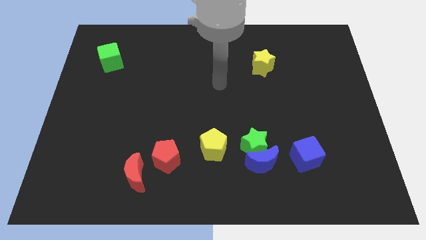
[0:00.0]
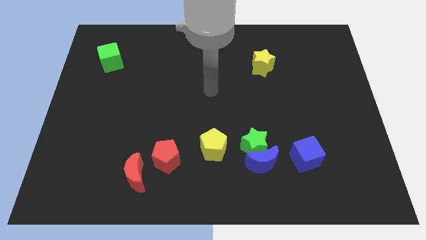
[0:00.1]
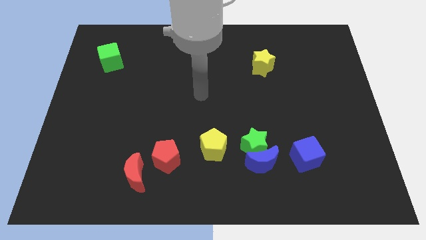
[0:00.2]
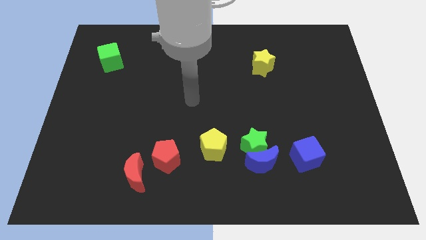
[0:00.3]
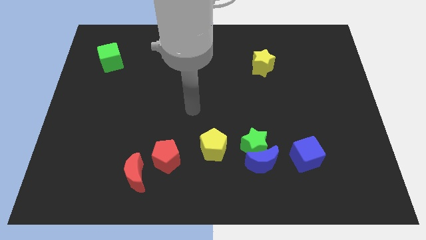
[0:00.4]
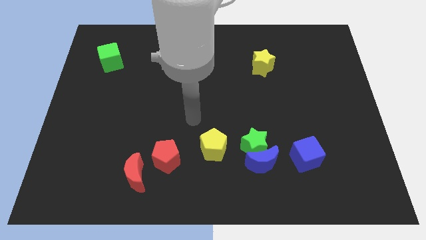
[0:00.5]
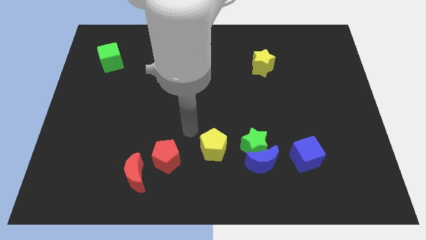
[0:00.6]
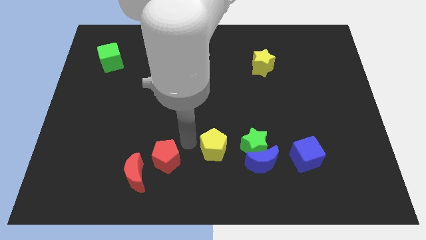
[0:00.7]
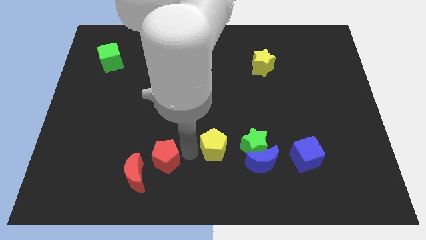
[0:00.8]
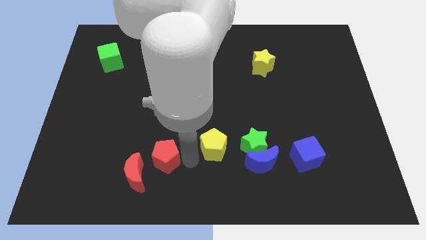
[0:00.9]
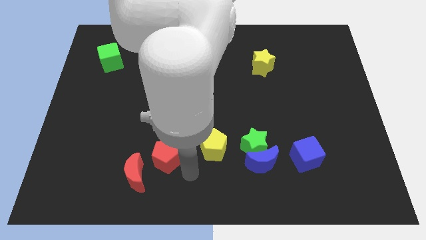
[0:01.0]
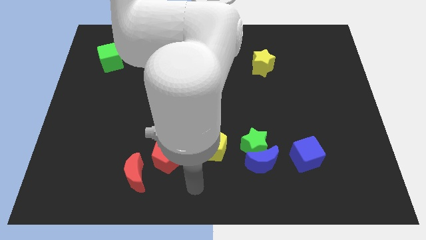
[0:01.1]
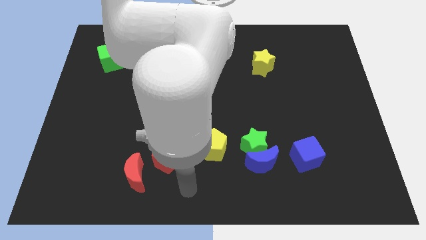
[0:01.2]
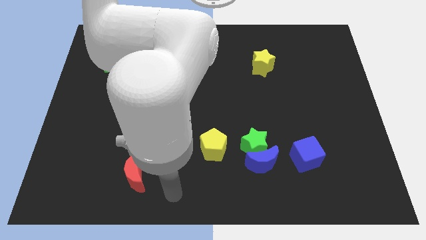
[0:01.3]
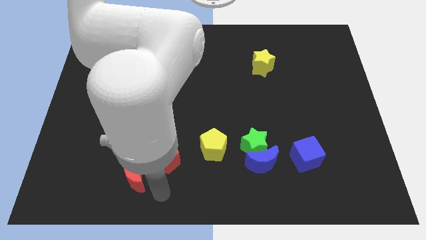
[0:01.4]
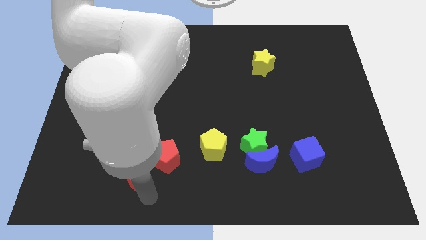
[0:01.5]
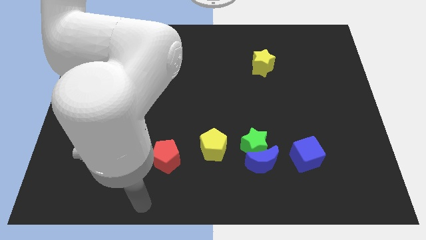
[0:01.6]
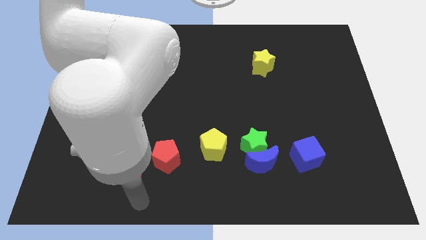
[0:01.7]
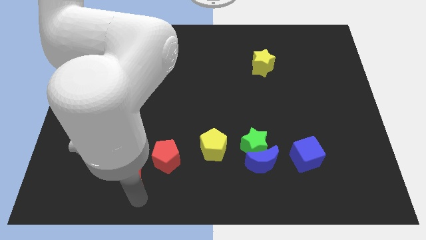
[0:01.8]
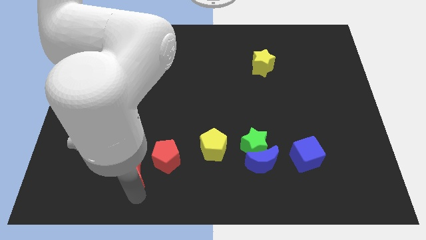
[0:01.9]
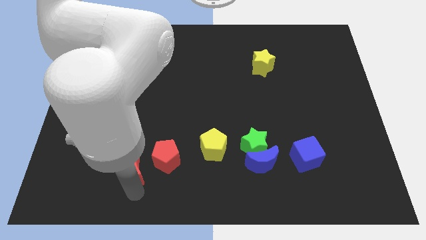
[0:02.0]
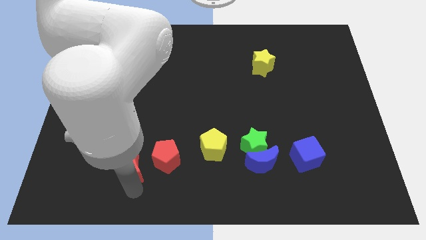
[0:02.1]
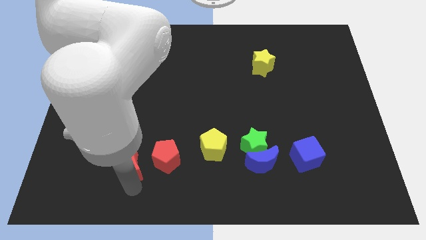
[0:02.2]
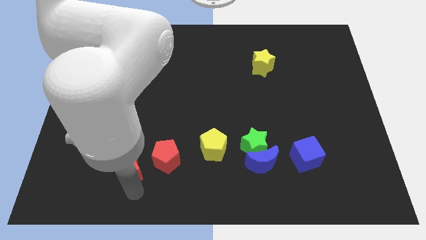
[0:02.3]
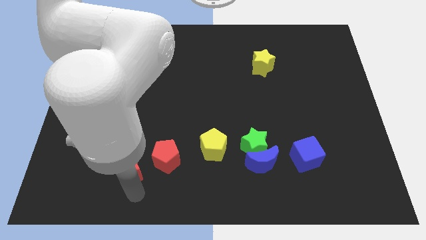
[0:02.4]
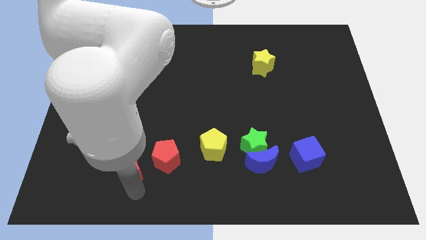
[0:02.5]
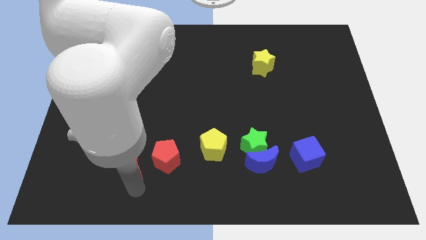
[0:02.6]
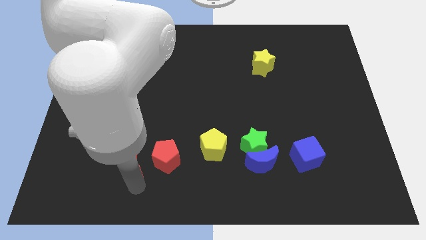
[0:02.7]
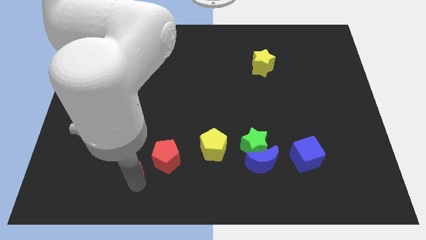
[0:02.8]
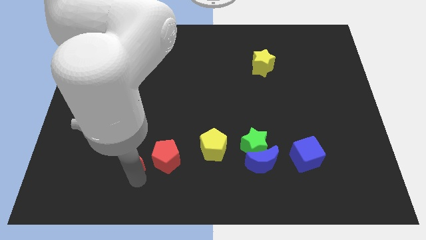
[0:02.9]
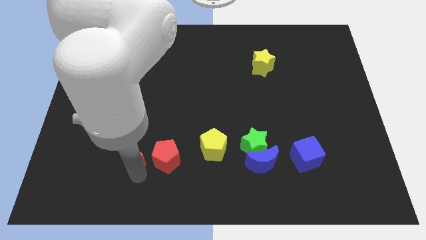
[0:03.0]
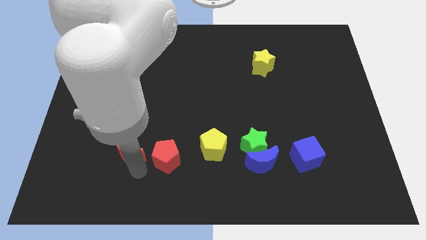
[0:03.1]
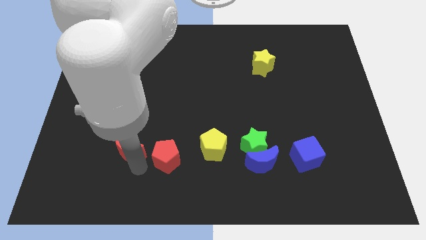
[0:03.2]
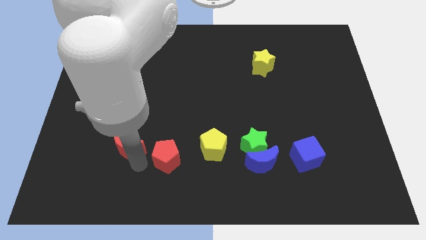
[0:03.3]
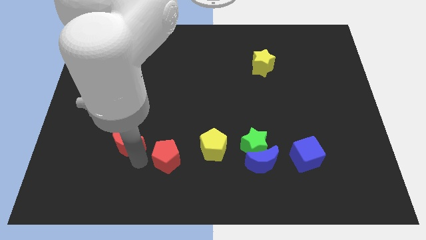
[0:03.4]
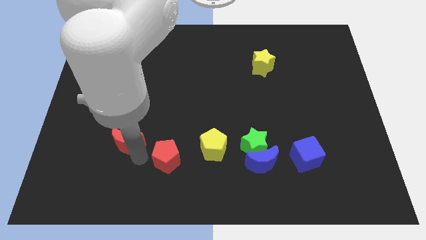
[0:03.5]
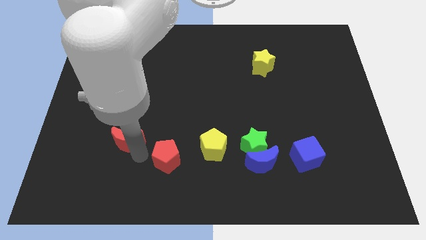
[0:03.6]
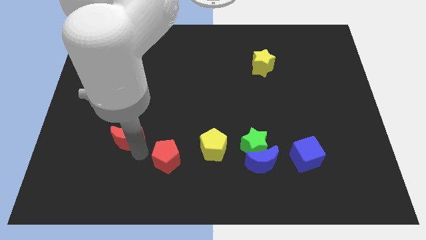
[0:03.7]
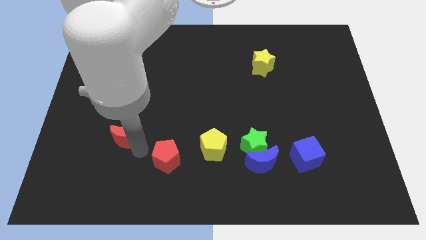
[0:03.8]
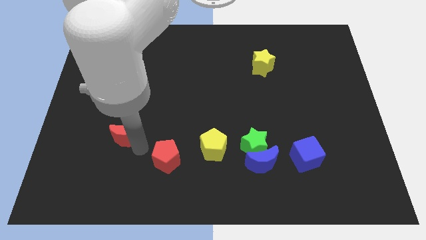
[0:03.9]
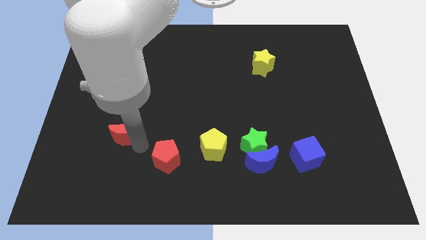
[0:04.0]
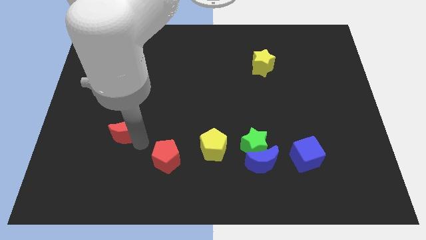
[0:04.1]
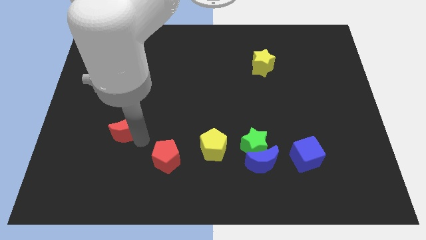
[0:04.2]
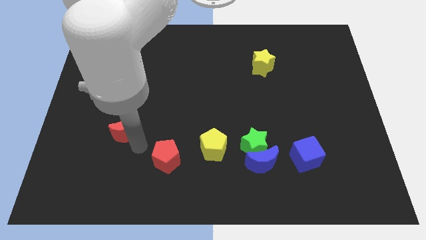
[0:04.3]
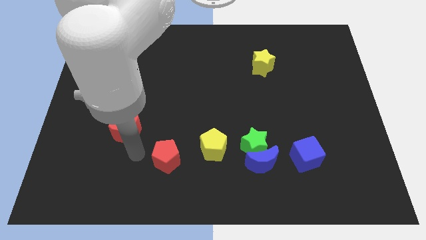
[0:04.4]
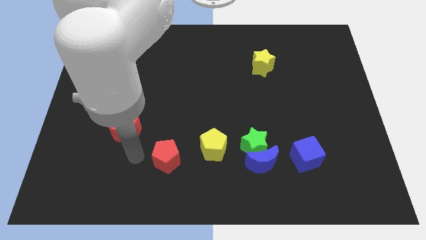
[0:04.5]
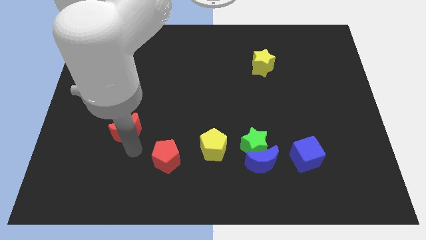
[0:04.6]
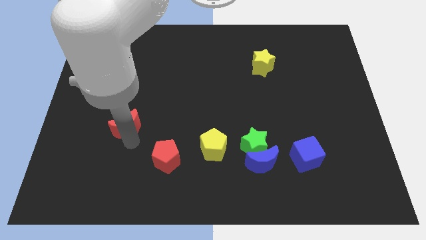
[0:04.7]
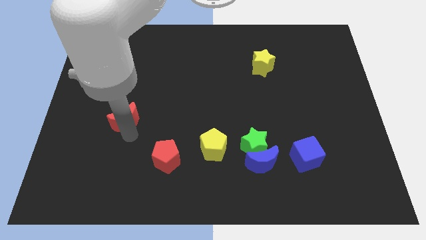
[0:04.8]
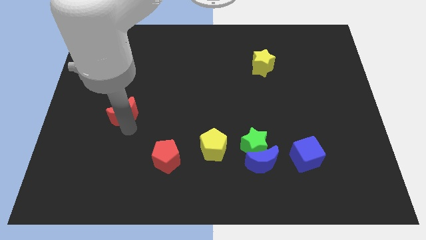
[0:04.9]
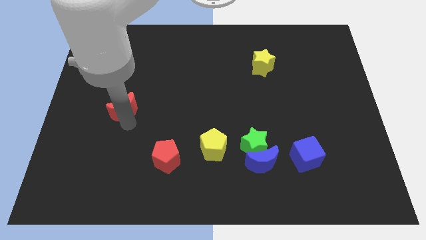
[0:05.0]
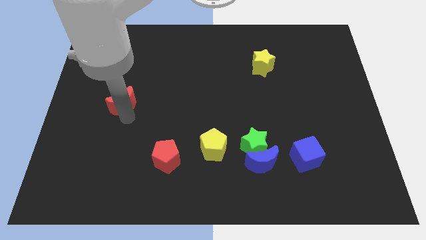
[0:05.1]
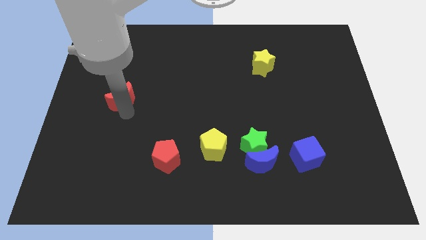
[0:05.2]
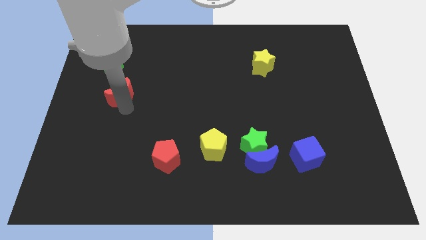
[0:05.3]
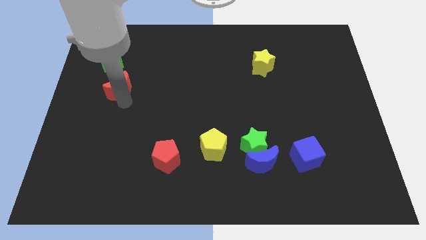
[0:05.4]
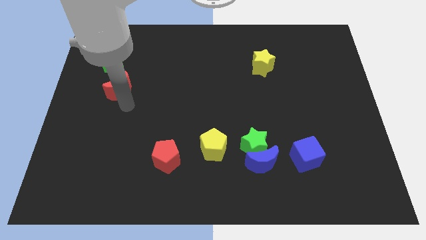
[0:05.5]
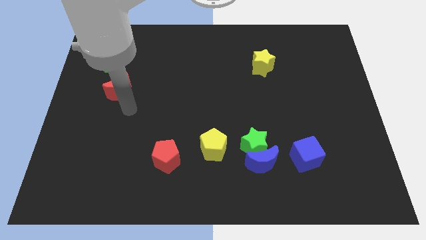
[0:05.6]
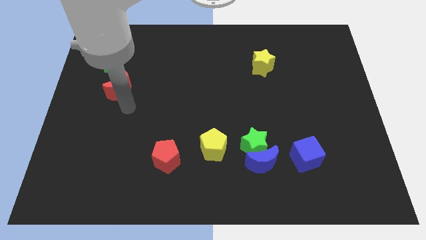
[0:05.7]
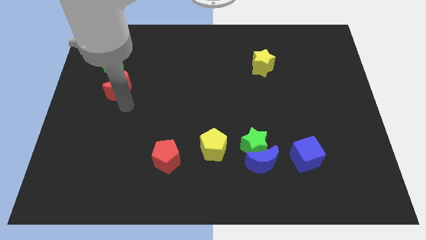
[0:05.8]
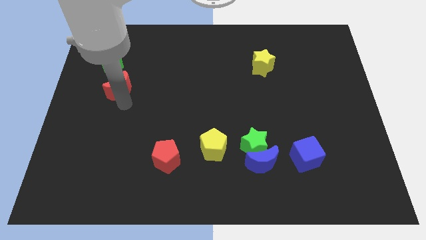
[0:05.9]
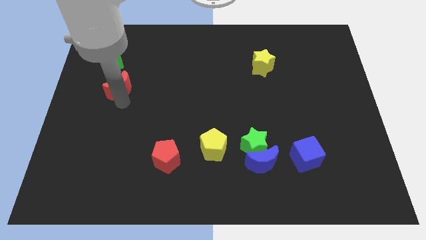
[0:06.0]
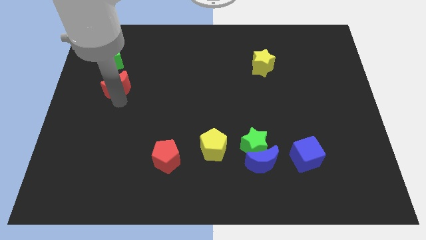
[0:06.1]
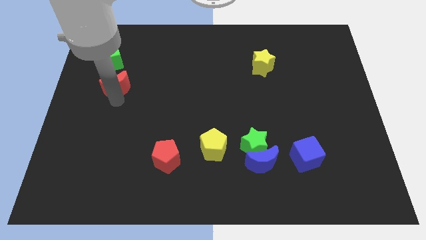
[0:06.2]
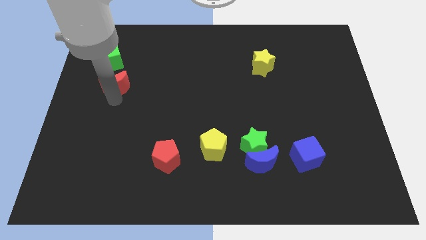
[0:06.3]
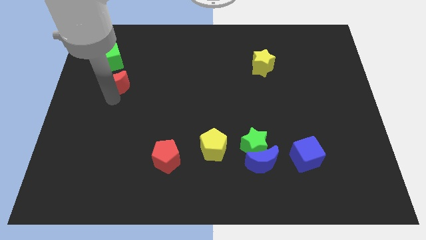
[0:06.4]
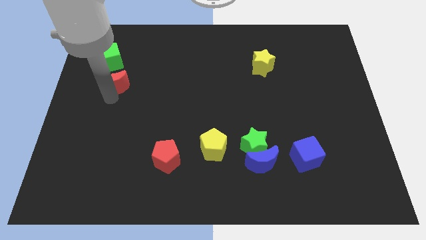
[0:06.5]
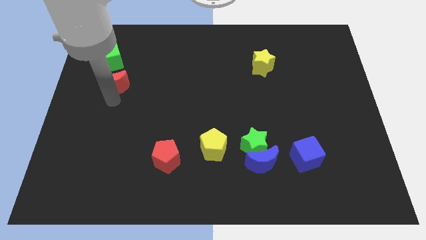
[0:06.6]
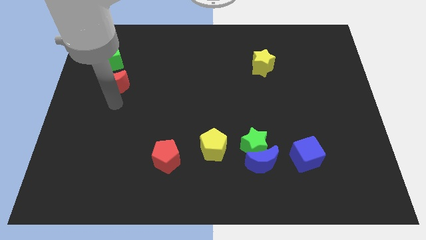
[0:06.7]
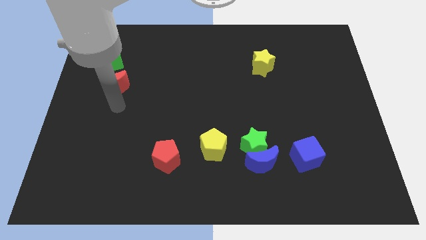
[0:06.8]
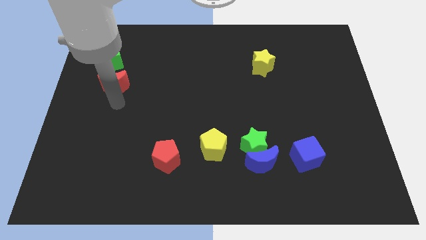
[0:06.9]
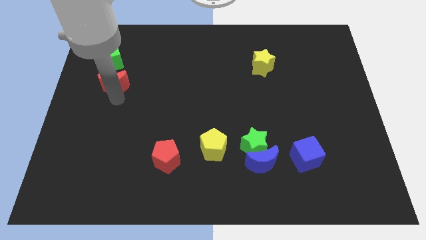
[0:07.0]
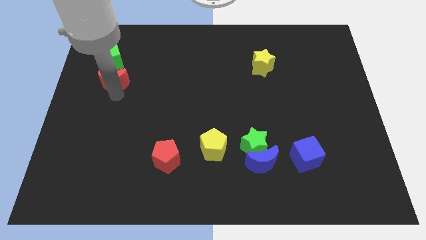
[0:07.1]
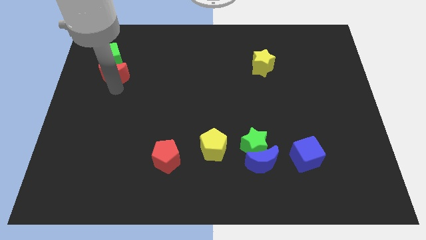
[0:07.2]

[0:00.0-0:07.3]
push the red moon next to the green cube

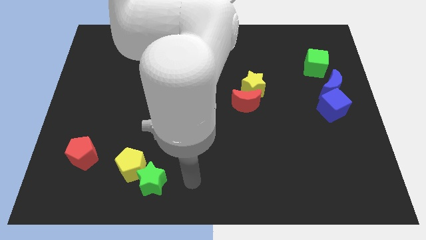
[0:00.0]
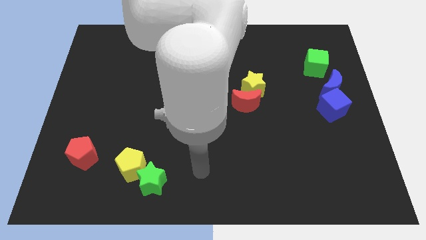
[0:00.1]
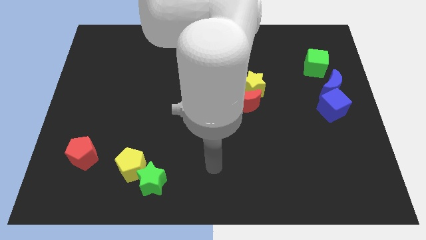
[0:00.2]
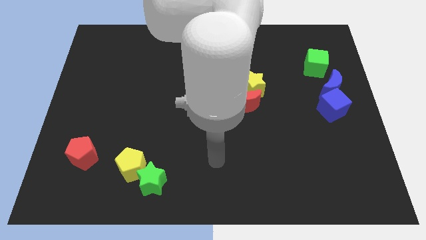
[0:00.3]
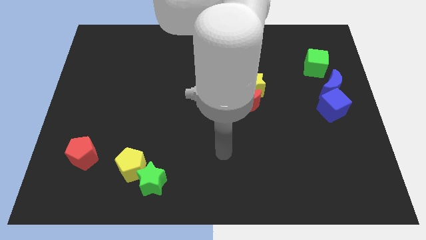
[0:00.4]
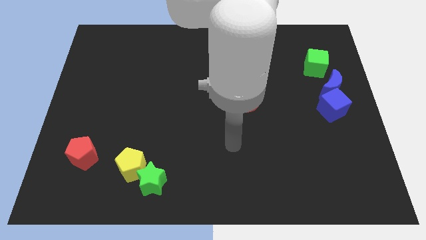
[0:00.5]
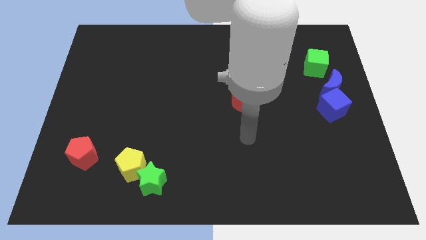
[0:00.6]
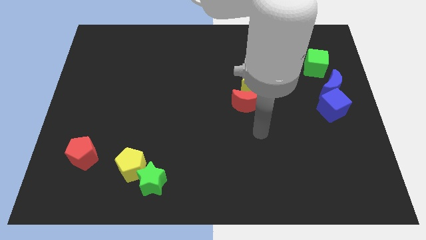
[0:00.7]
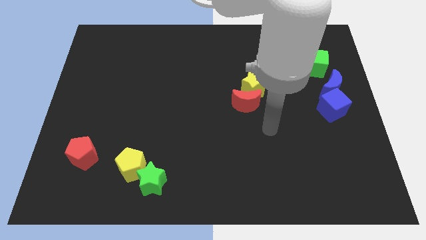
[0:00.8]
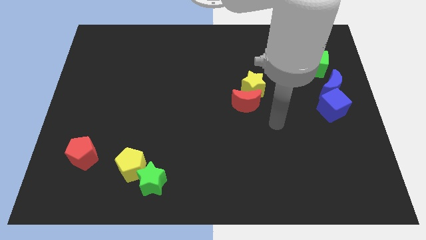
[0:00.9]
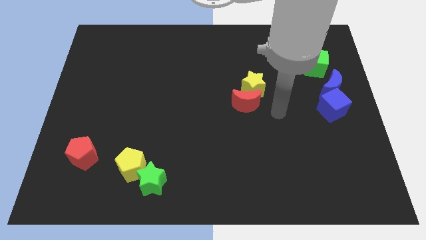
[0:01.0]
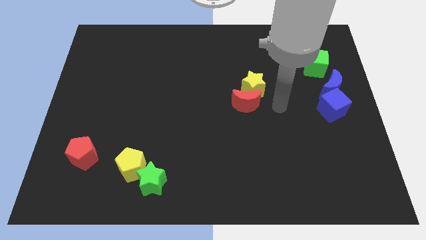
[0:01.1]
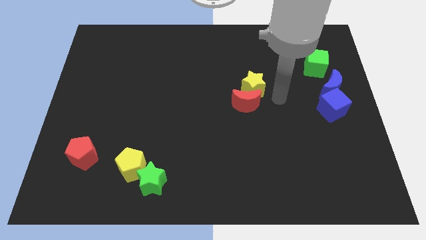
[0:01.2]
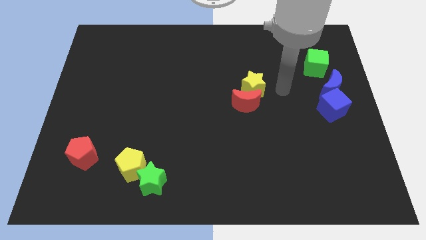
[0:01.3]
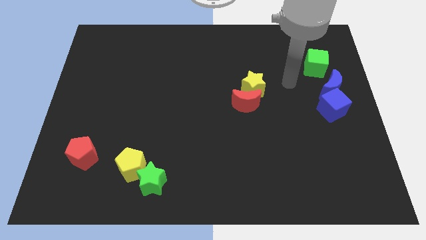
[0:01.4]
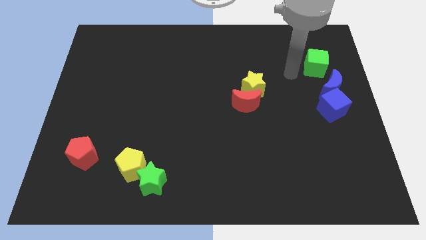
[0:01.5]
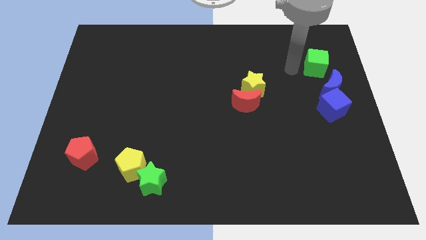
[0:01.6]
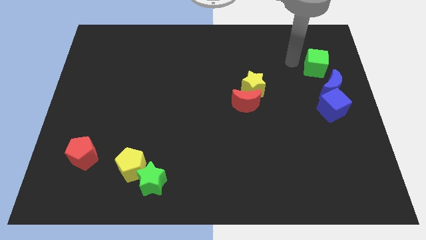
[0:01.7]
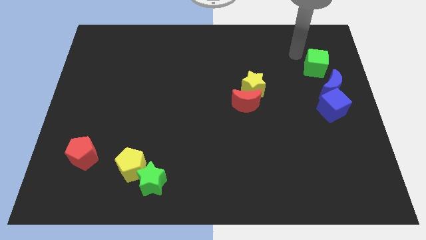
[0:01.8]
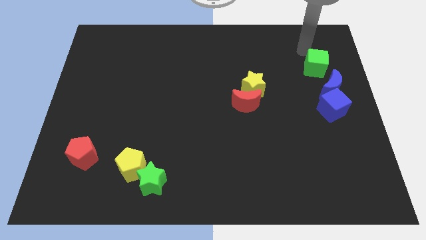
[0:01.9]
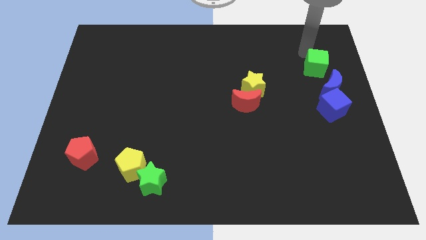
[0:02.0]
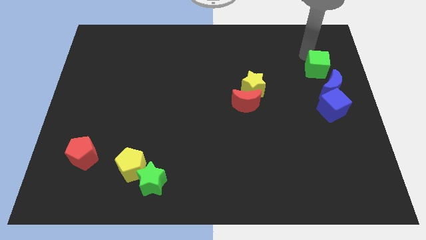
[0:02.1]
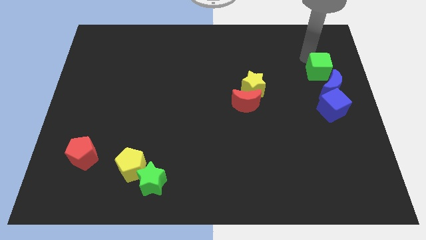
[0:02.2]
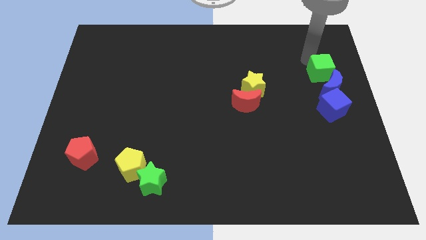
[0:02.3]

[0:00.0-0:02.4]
push the green cube towards the blue moon
